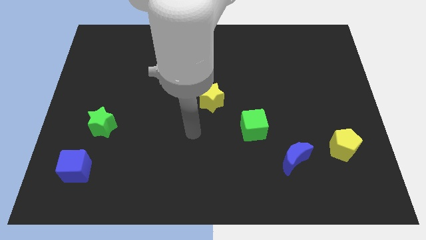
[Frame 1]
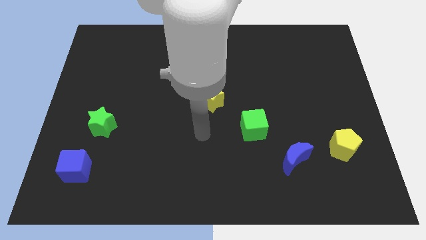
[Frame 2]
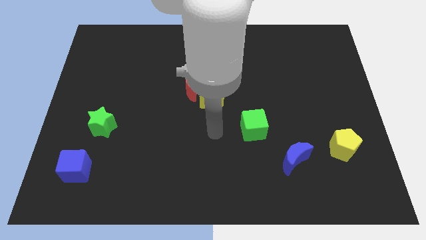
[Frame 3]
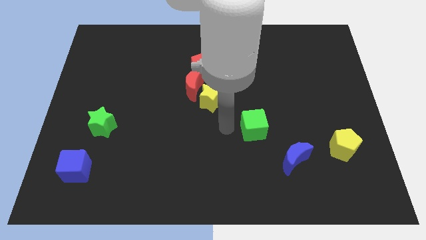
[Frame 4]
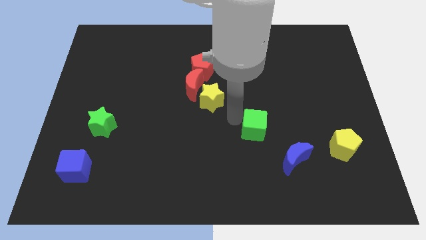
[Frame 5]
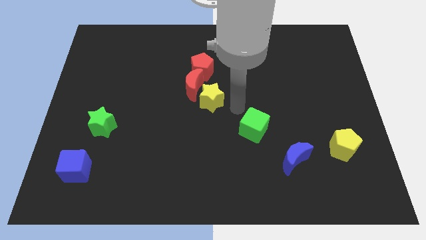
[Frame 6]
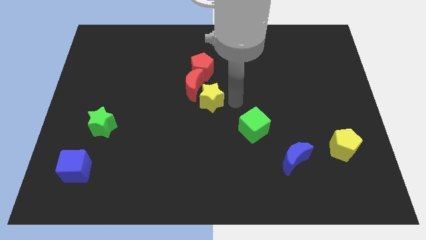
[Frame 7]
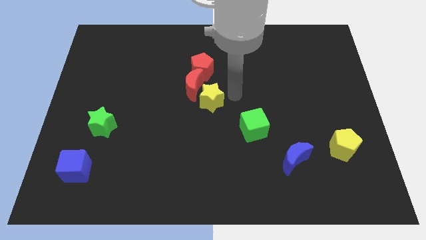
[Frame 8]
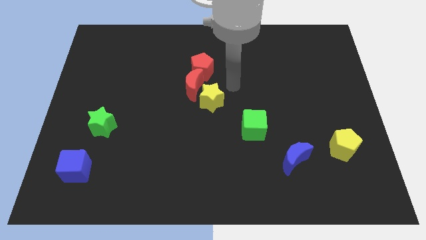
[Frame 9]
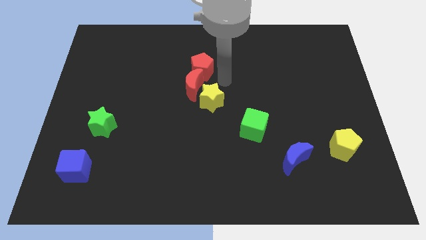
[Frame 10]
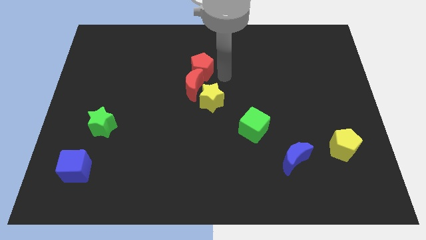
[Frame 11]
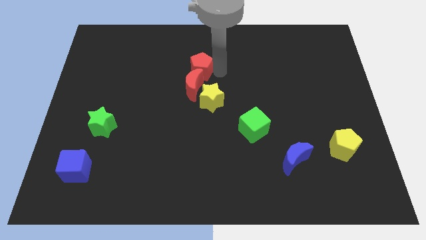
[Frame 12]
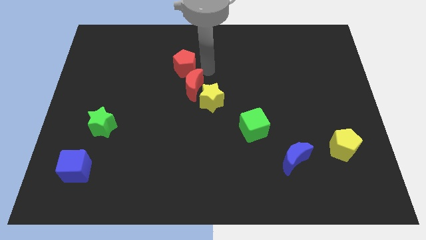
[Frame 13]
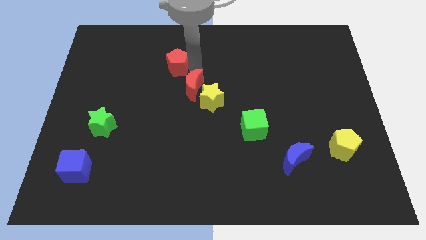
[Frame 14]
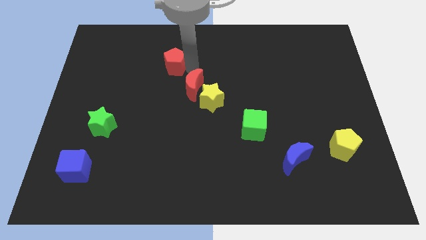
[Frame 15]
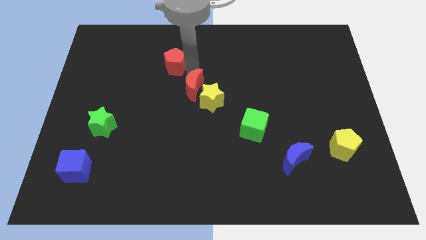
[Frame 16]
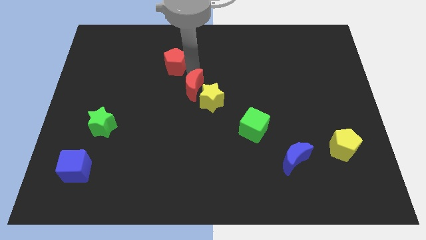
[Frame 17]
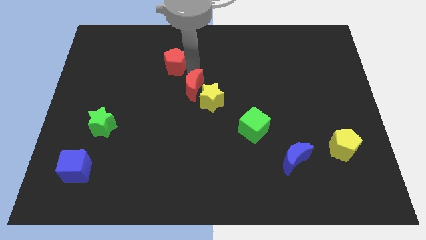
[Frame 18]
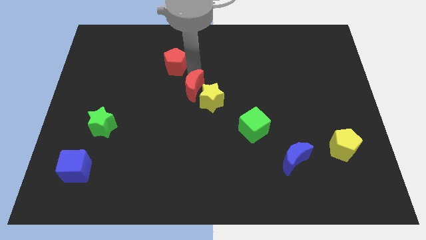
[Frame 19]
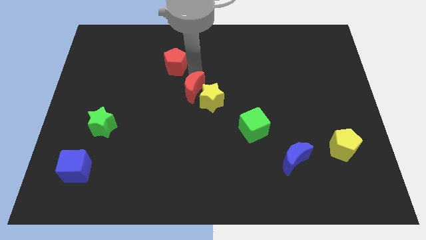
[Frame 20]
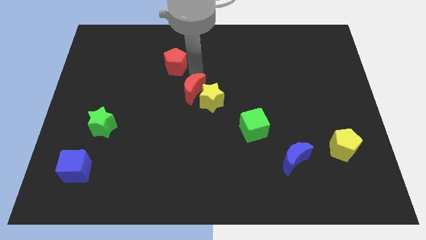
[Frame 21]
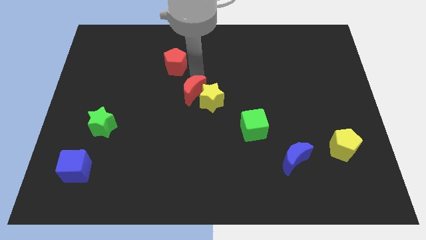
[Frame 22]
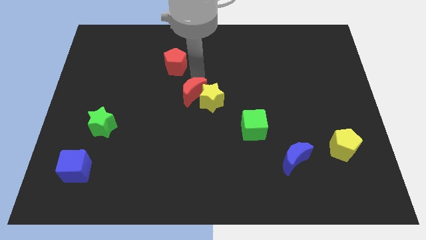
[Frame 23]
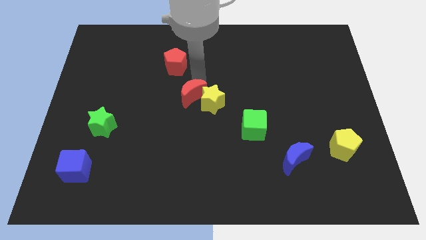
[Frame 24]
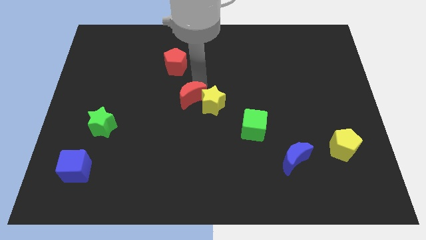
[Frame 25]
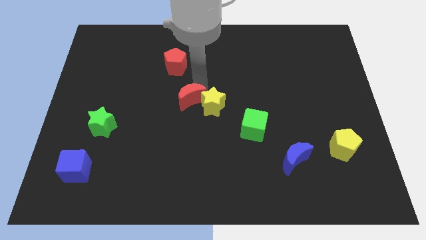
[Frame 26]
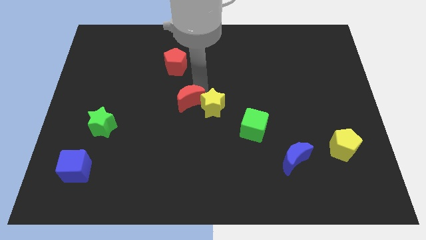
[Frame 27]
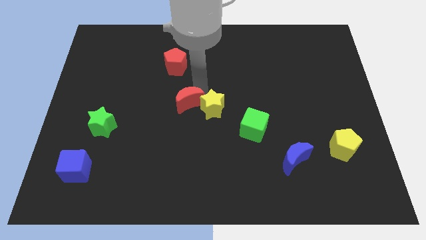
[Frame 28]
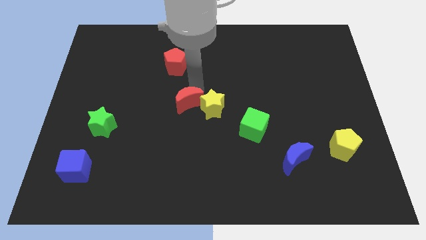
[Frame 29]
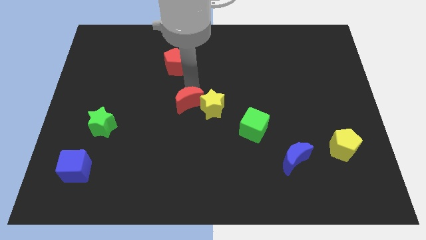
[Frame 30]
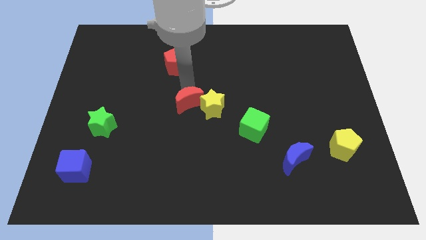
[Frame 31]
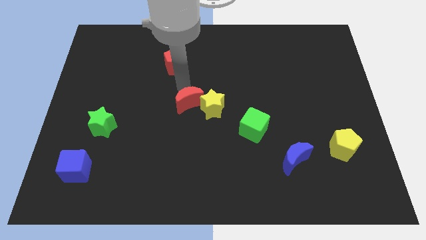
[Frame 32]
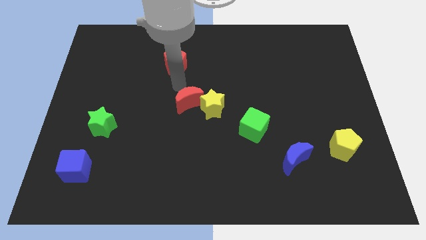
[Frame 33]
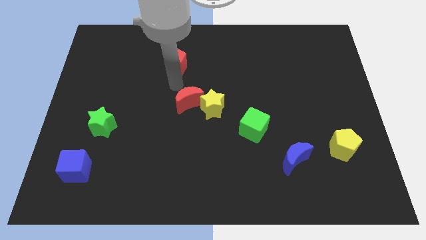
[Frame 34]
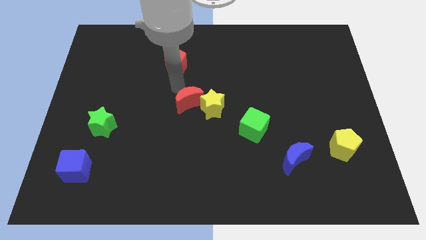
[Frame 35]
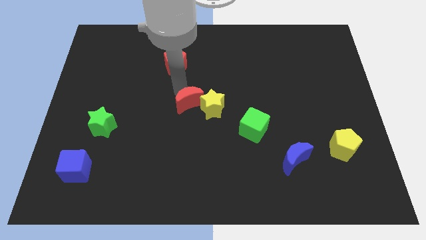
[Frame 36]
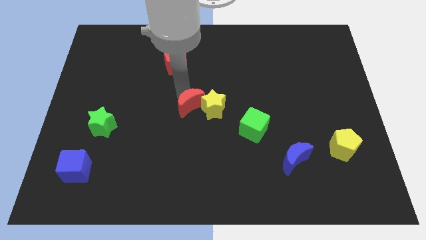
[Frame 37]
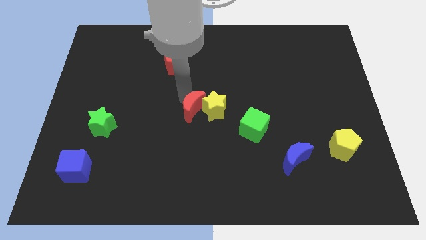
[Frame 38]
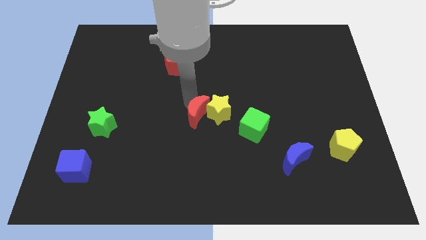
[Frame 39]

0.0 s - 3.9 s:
slightly slide the red moon down

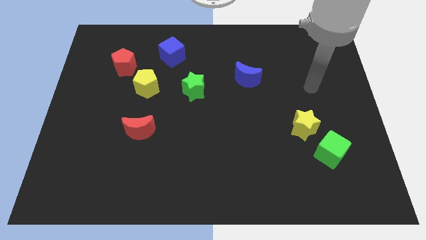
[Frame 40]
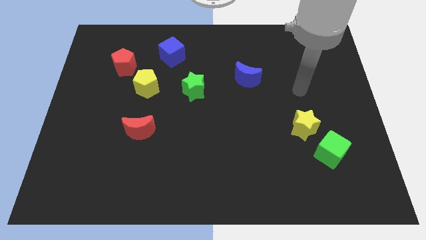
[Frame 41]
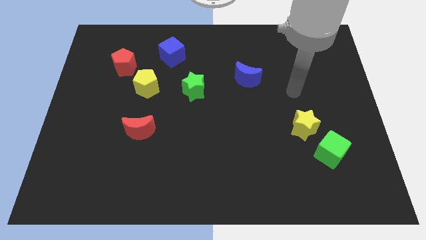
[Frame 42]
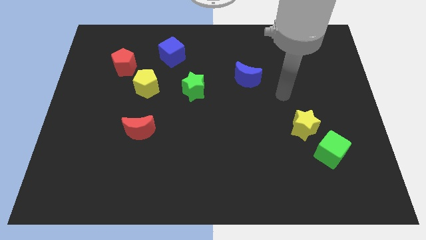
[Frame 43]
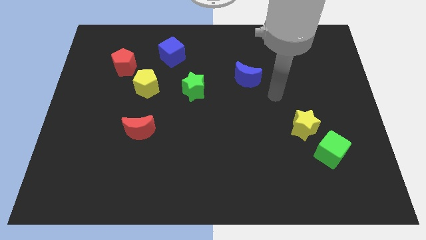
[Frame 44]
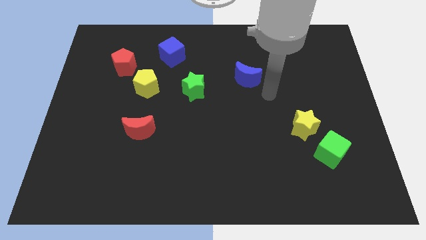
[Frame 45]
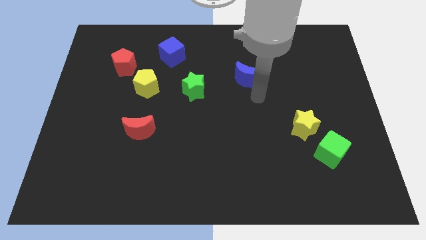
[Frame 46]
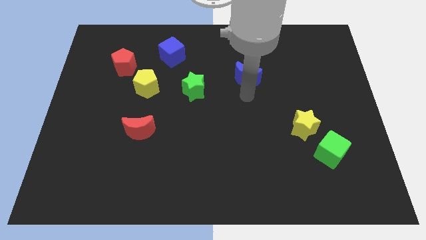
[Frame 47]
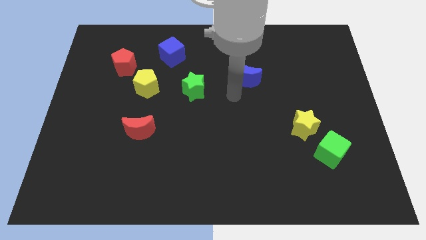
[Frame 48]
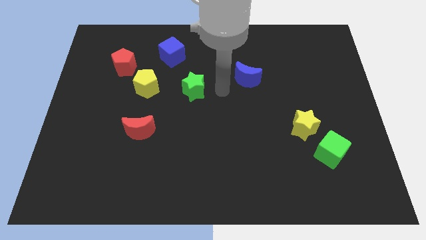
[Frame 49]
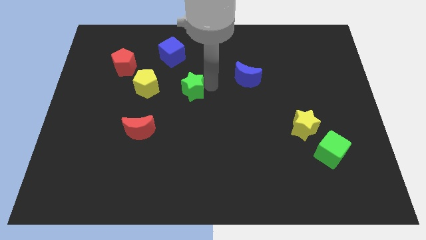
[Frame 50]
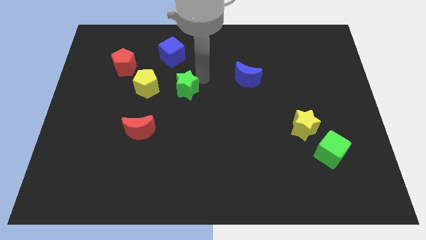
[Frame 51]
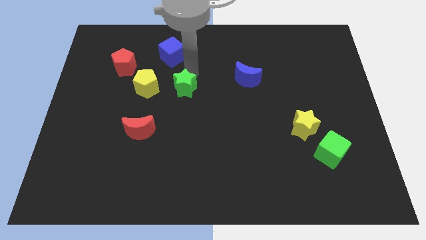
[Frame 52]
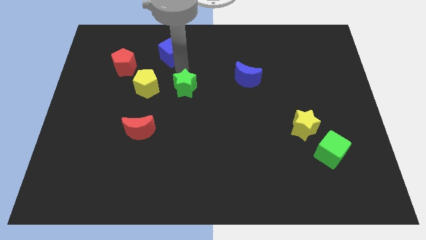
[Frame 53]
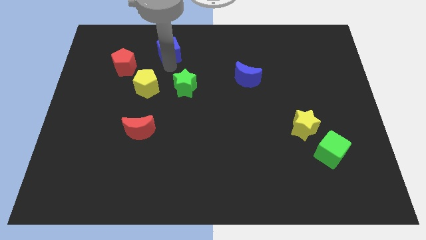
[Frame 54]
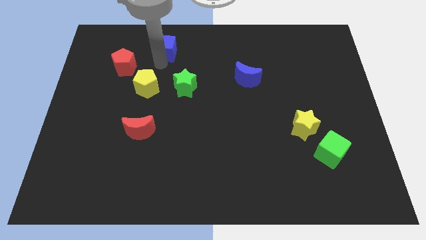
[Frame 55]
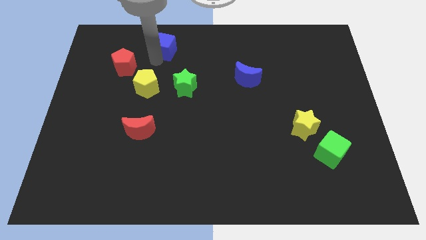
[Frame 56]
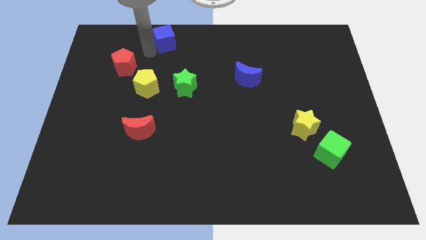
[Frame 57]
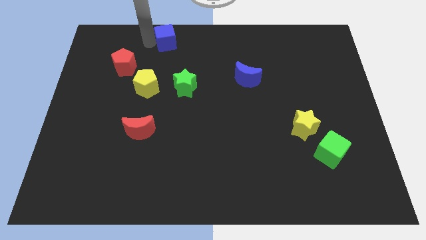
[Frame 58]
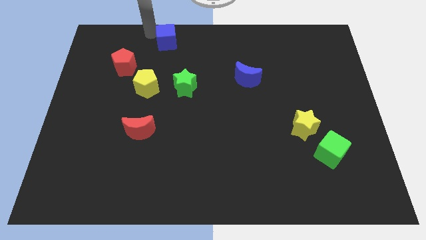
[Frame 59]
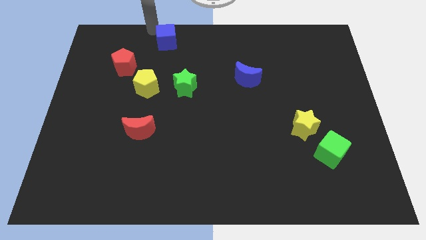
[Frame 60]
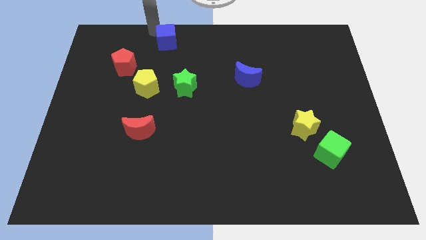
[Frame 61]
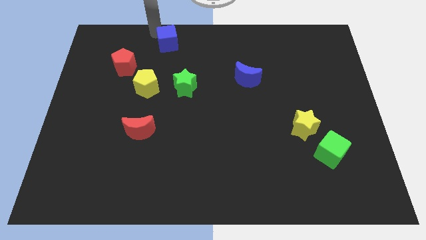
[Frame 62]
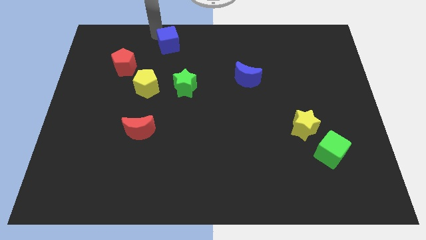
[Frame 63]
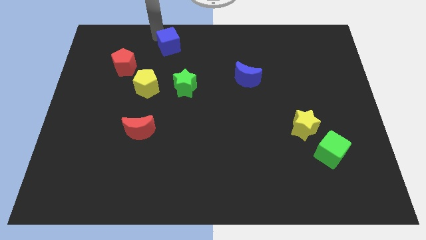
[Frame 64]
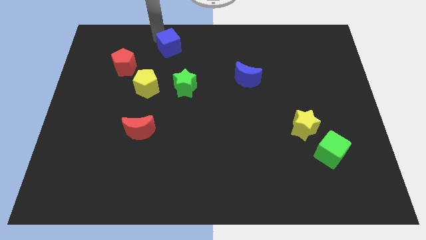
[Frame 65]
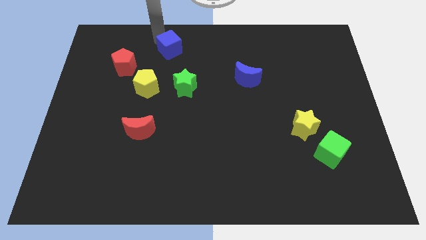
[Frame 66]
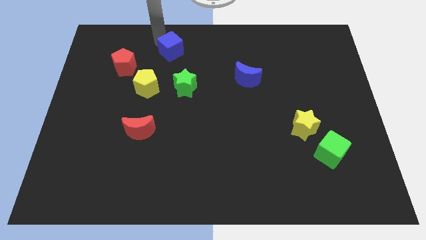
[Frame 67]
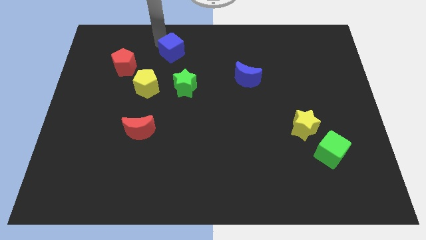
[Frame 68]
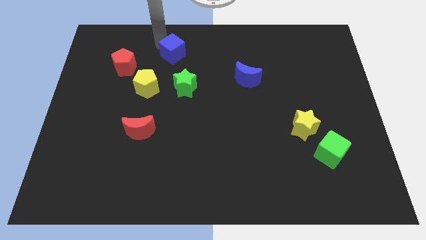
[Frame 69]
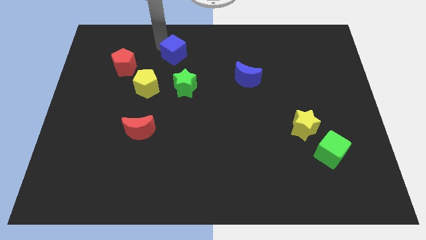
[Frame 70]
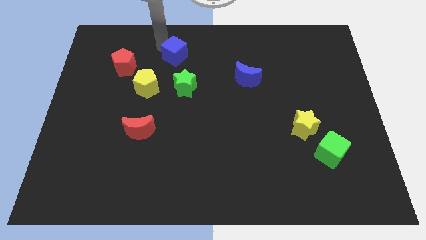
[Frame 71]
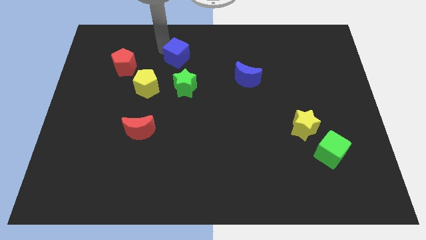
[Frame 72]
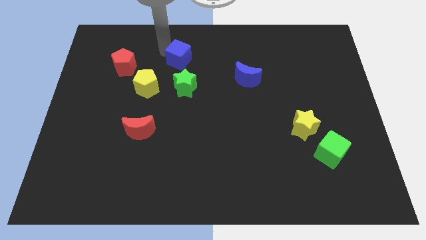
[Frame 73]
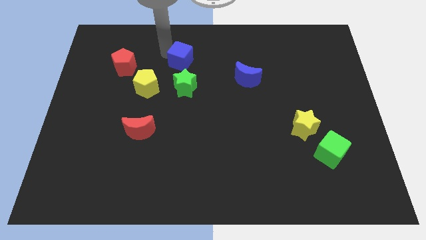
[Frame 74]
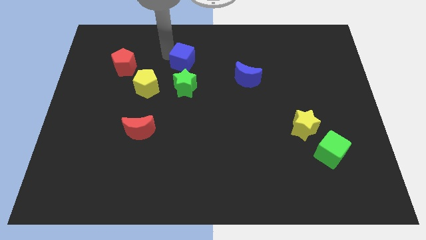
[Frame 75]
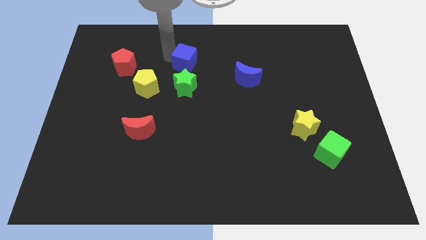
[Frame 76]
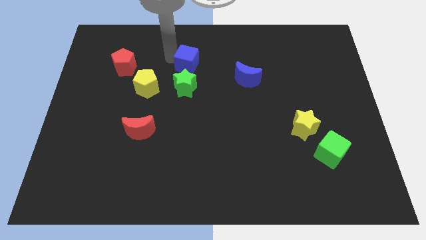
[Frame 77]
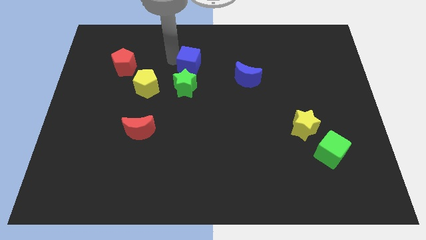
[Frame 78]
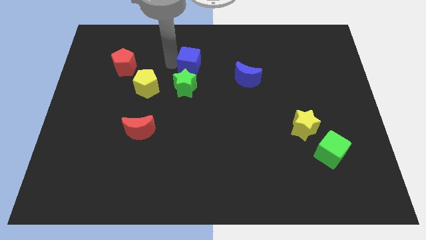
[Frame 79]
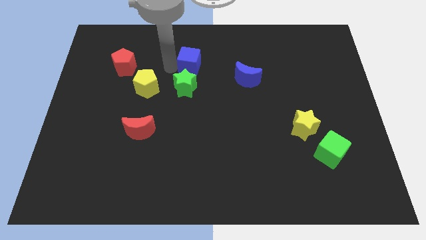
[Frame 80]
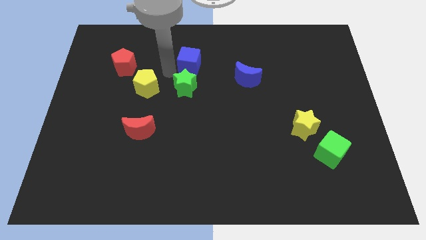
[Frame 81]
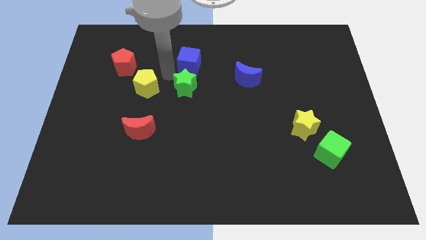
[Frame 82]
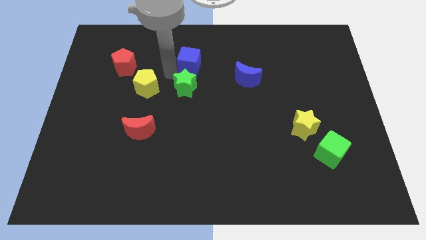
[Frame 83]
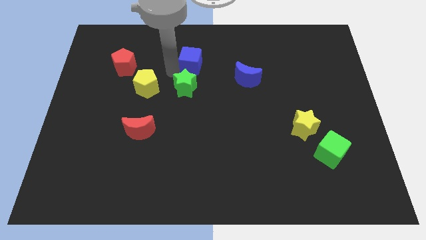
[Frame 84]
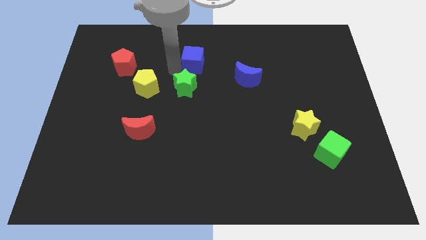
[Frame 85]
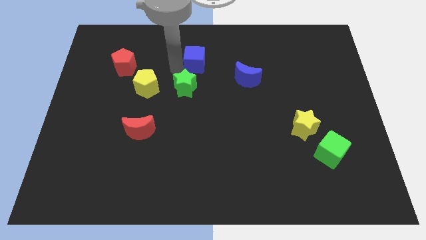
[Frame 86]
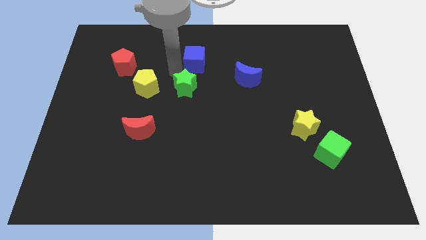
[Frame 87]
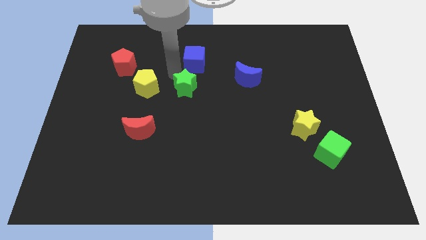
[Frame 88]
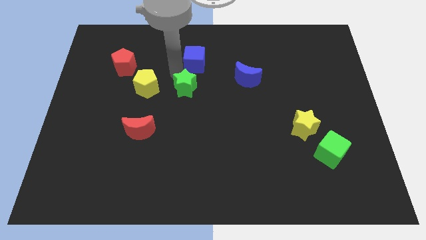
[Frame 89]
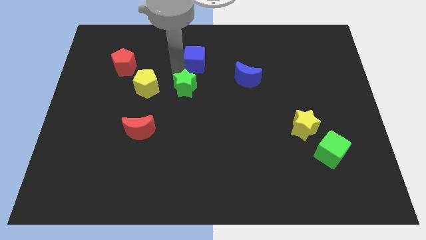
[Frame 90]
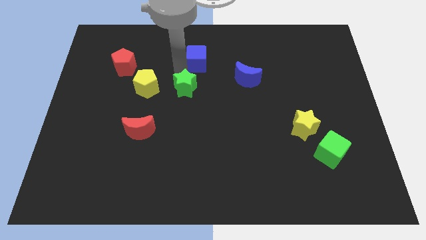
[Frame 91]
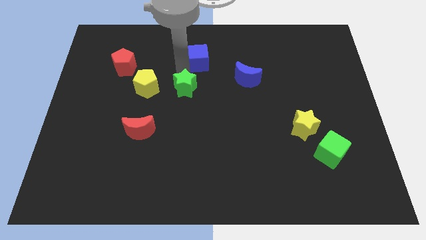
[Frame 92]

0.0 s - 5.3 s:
slightly move the blue cube right
